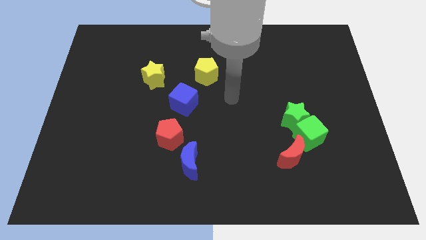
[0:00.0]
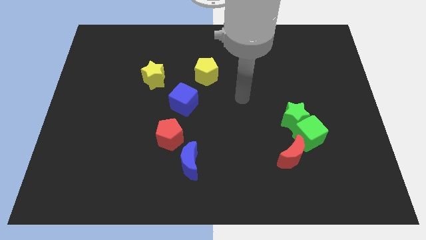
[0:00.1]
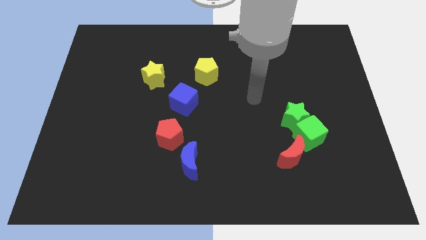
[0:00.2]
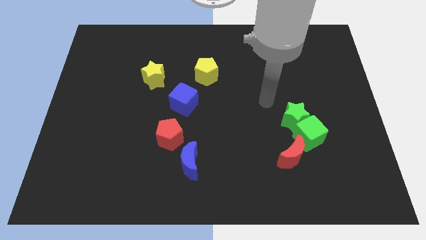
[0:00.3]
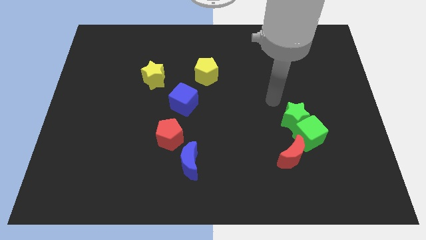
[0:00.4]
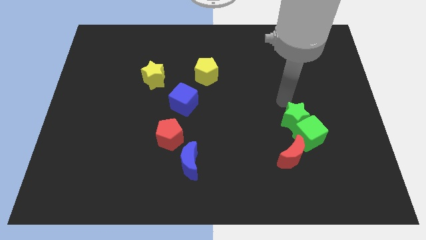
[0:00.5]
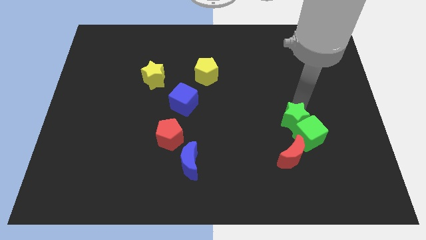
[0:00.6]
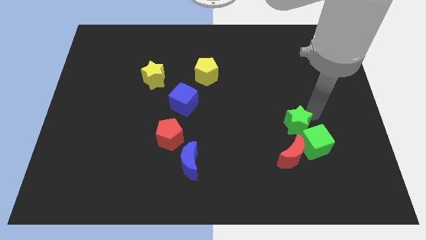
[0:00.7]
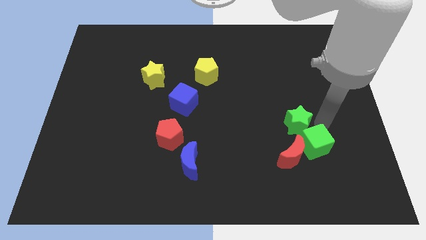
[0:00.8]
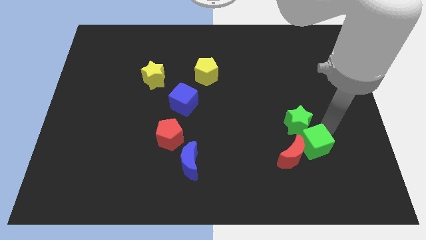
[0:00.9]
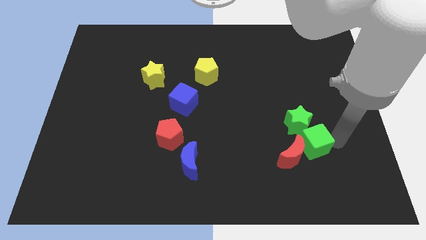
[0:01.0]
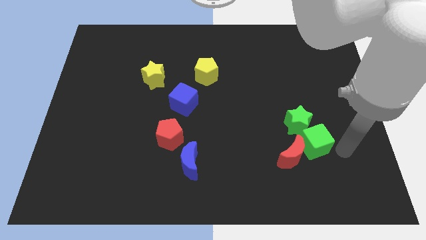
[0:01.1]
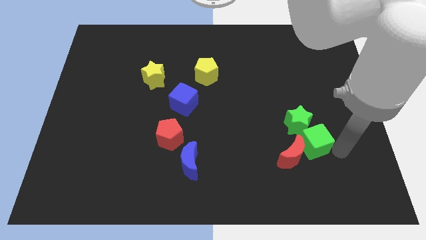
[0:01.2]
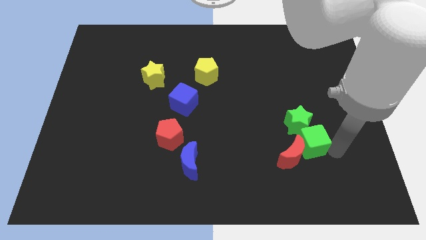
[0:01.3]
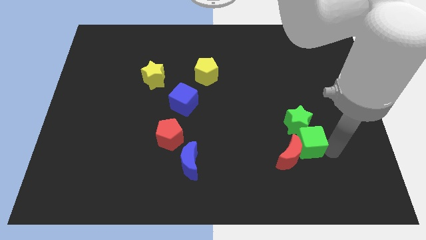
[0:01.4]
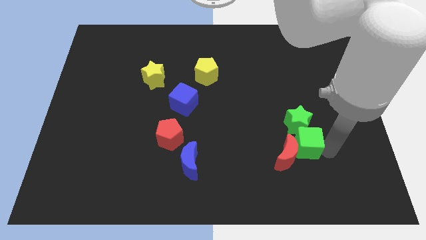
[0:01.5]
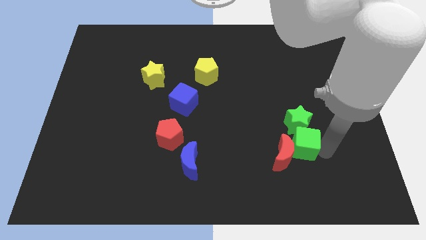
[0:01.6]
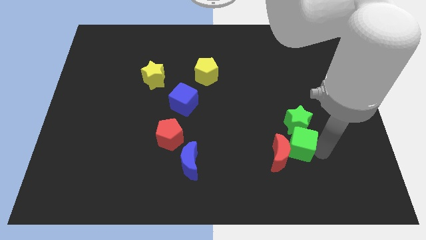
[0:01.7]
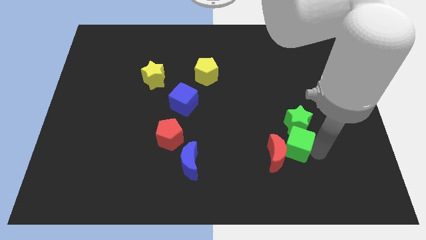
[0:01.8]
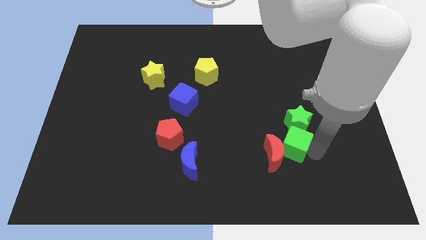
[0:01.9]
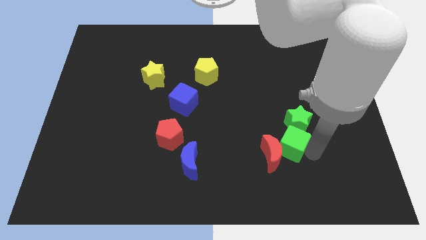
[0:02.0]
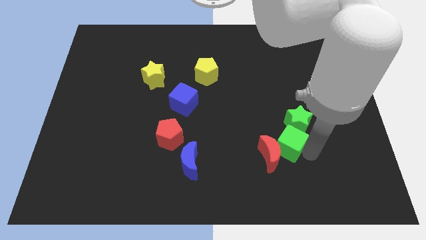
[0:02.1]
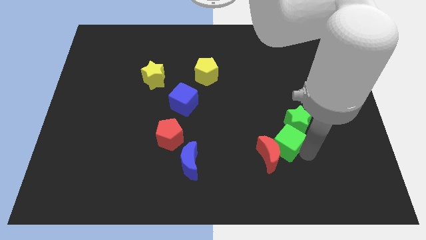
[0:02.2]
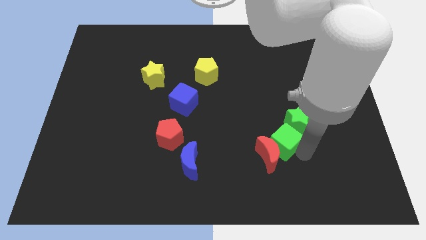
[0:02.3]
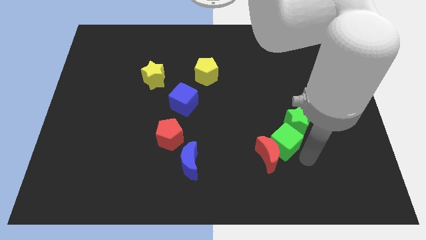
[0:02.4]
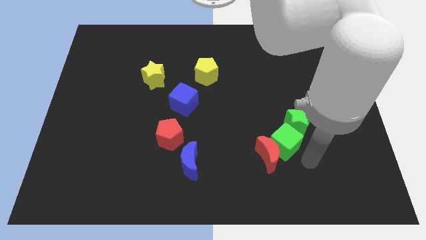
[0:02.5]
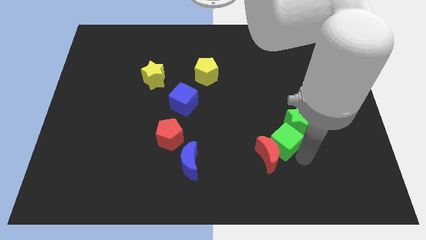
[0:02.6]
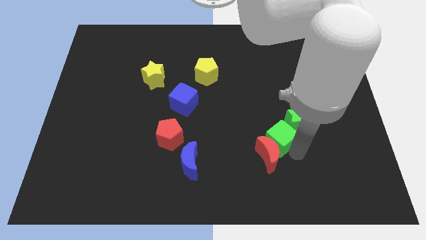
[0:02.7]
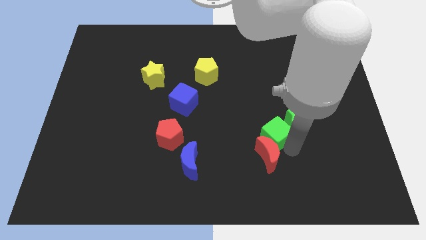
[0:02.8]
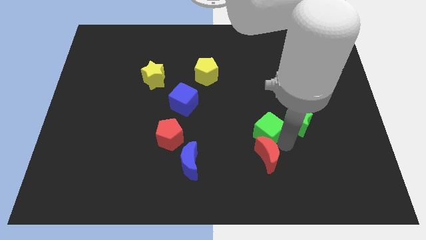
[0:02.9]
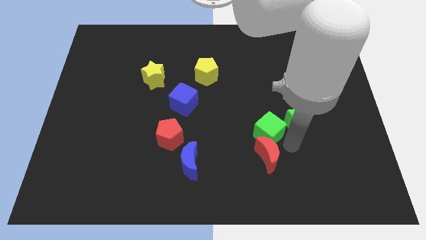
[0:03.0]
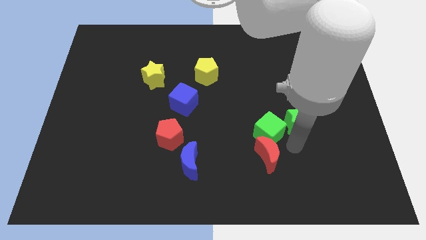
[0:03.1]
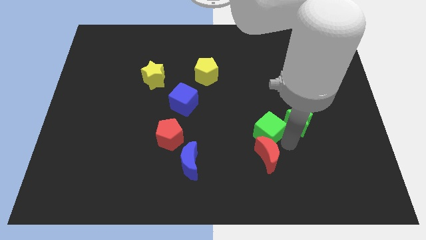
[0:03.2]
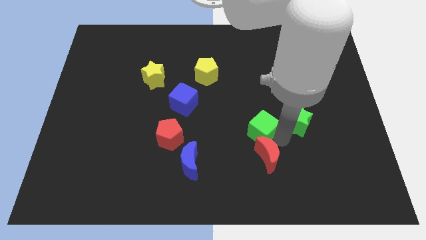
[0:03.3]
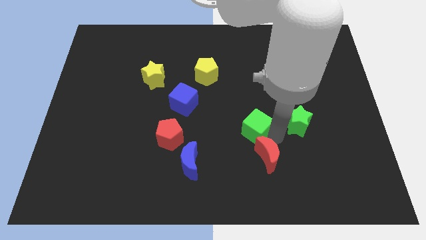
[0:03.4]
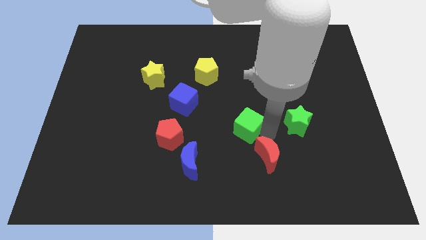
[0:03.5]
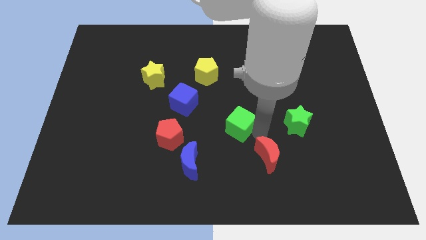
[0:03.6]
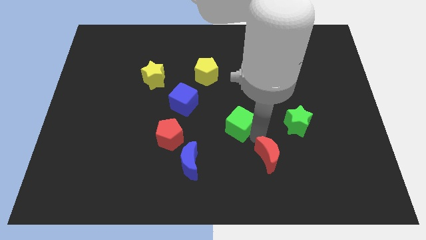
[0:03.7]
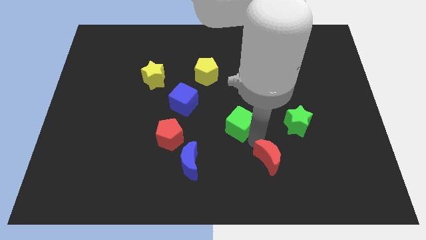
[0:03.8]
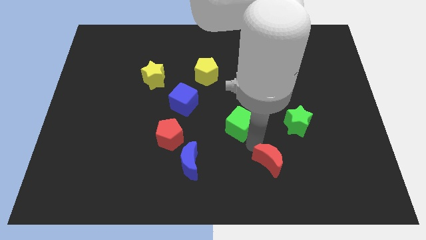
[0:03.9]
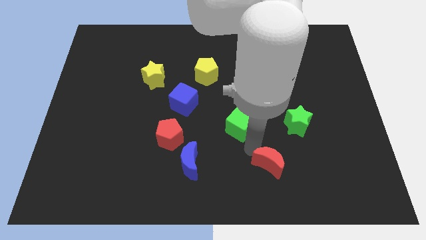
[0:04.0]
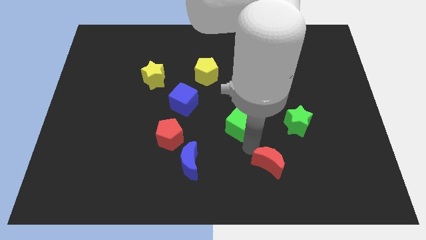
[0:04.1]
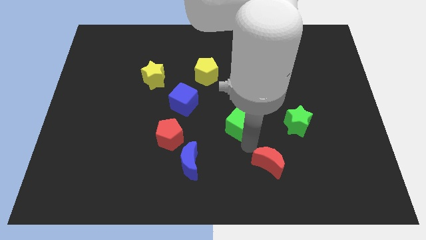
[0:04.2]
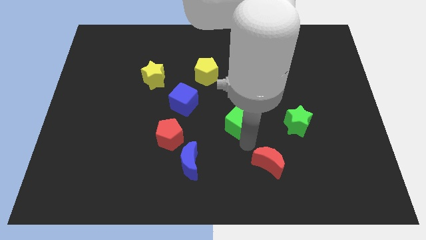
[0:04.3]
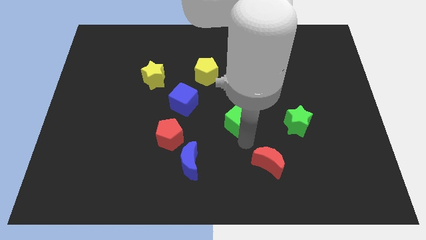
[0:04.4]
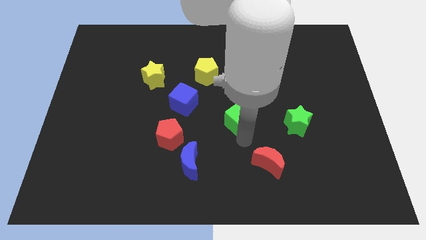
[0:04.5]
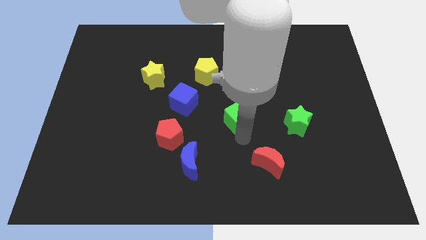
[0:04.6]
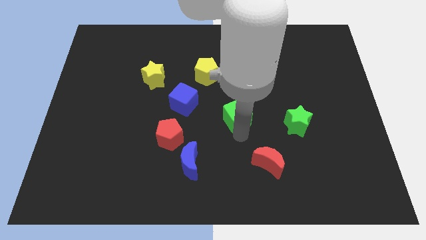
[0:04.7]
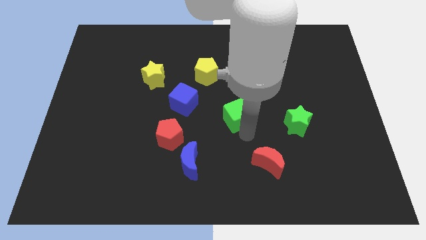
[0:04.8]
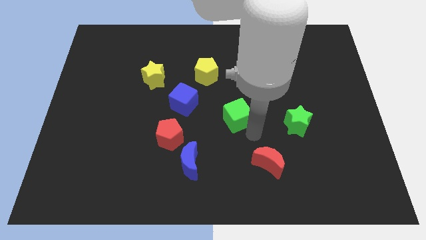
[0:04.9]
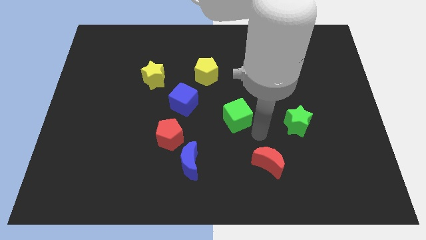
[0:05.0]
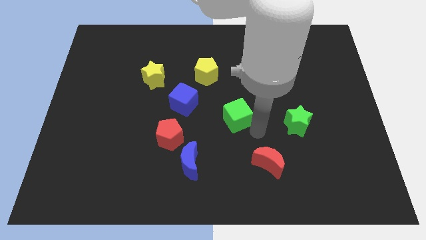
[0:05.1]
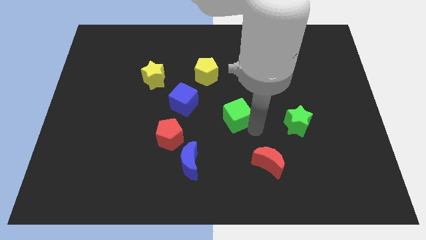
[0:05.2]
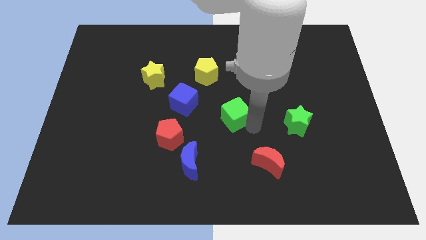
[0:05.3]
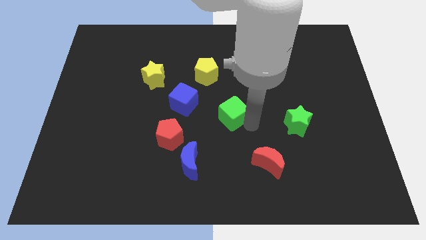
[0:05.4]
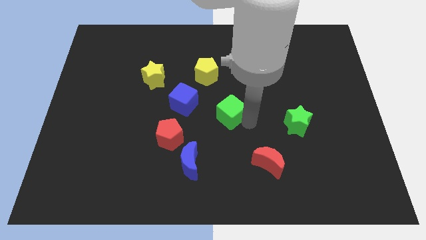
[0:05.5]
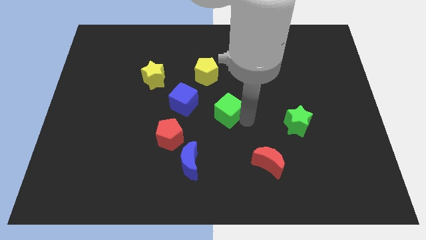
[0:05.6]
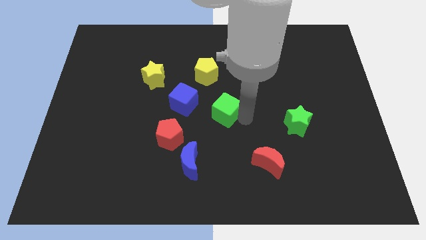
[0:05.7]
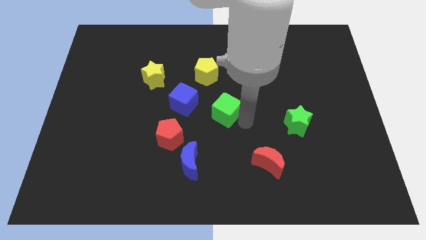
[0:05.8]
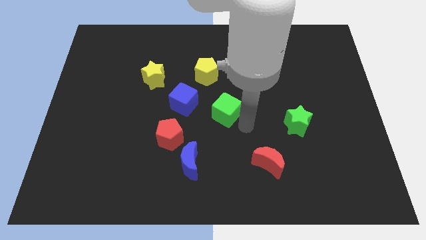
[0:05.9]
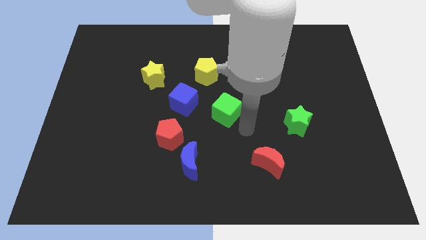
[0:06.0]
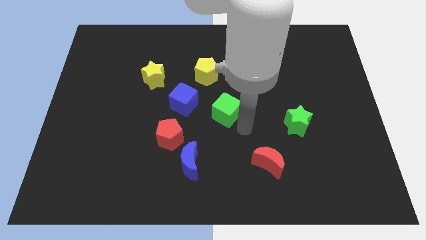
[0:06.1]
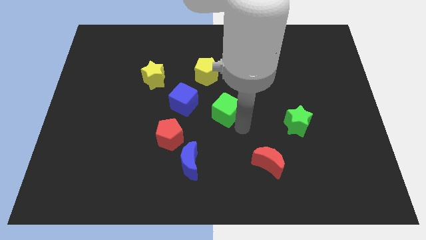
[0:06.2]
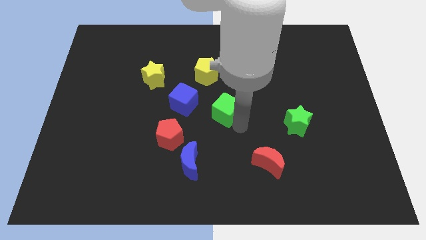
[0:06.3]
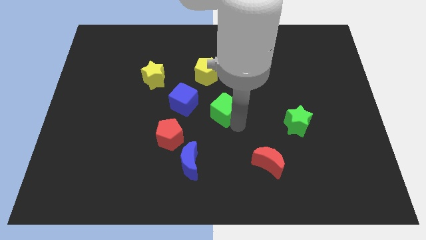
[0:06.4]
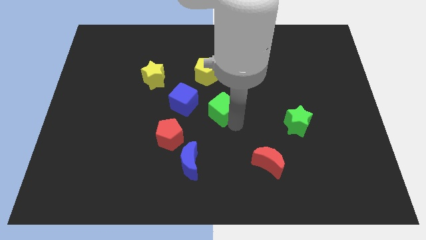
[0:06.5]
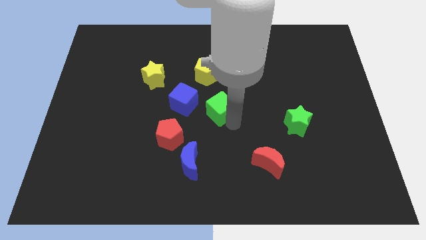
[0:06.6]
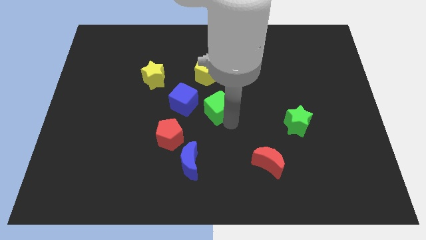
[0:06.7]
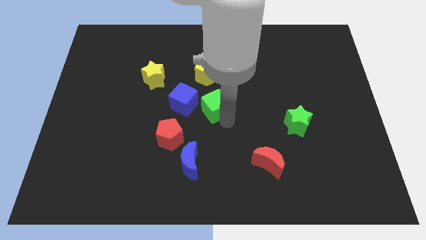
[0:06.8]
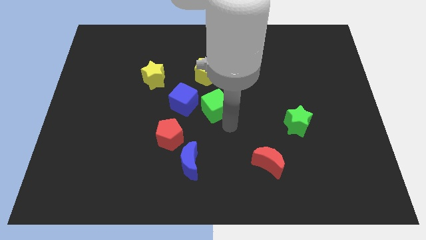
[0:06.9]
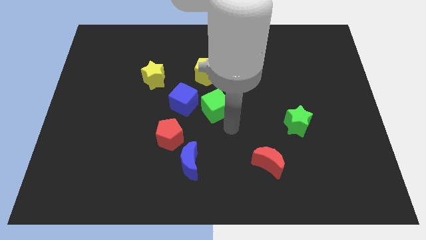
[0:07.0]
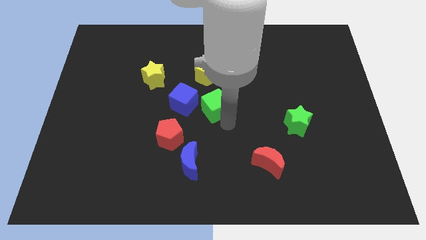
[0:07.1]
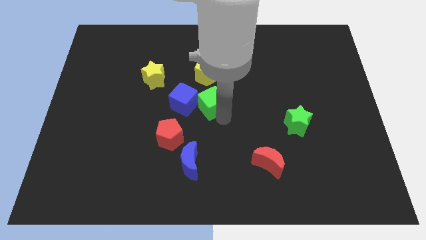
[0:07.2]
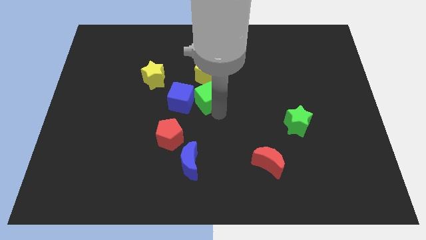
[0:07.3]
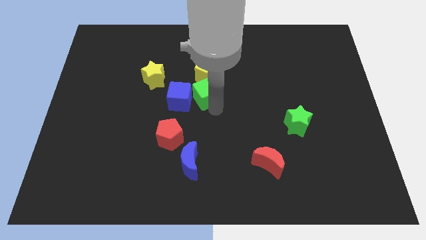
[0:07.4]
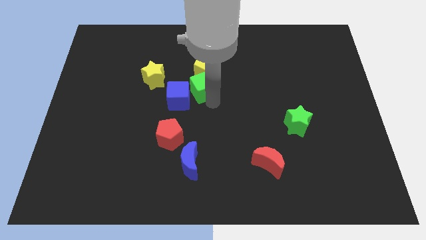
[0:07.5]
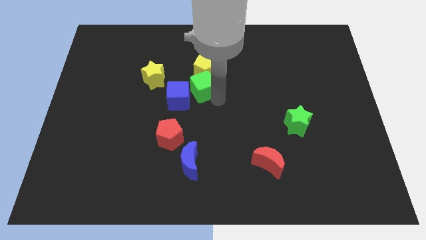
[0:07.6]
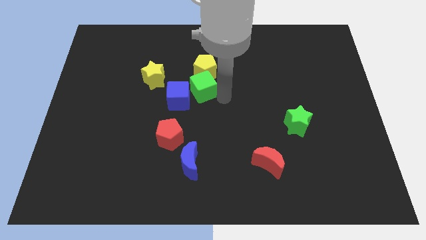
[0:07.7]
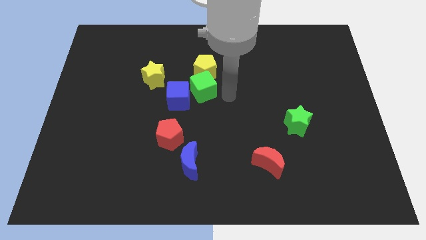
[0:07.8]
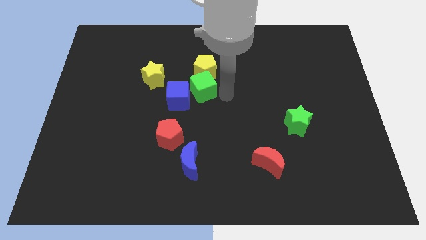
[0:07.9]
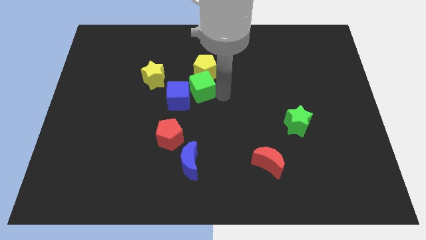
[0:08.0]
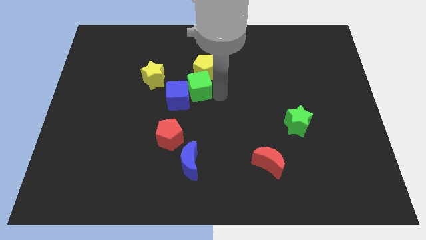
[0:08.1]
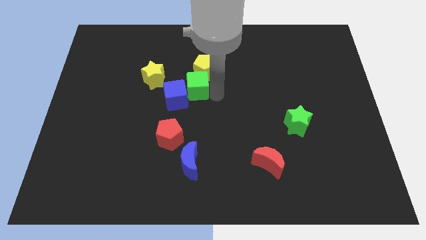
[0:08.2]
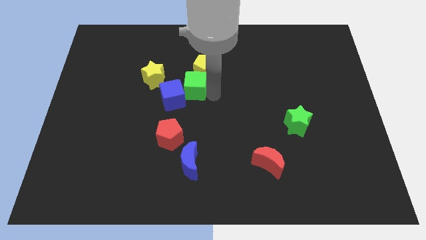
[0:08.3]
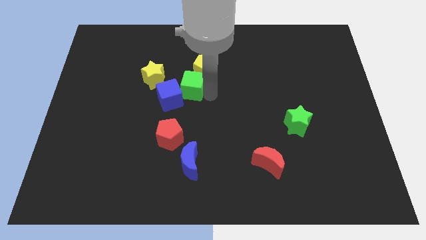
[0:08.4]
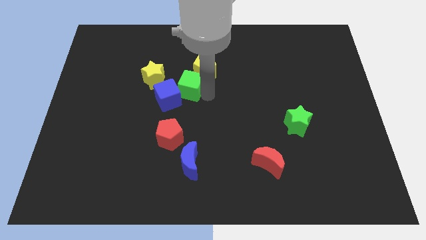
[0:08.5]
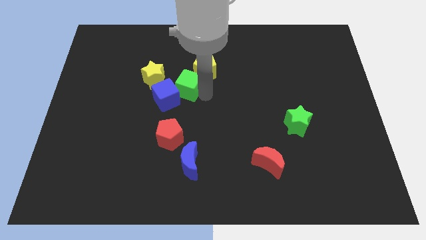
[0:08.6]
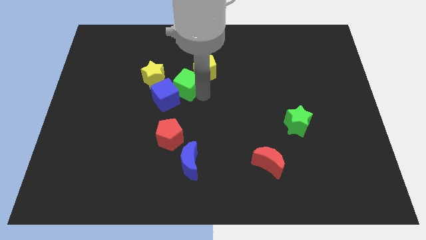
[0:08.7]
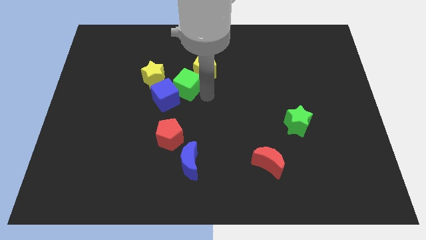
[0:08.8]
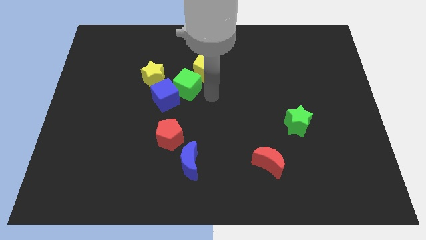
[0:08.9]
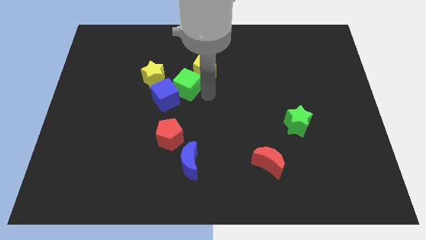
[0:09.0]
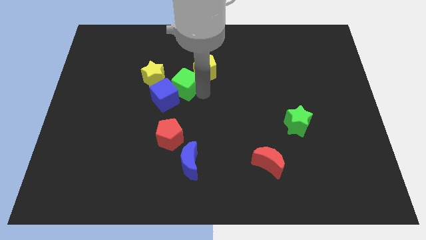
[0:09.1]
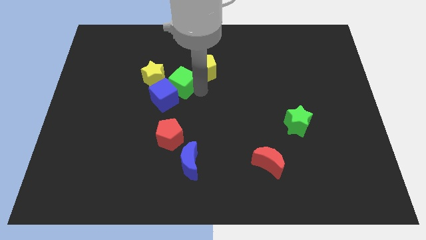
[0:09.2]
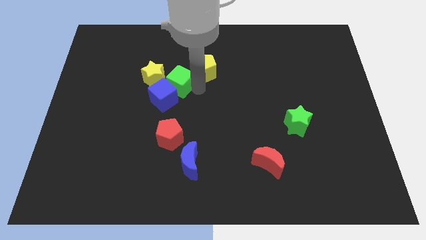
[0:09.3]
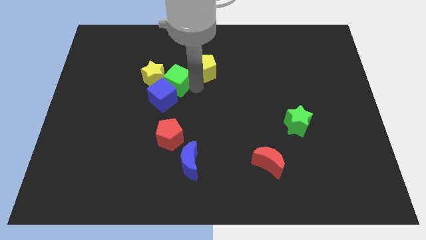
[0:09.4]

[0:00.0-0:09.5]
push the green cube to the yellow star
